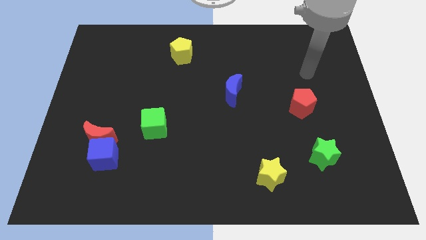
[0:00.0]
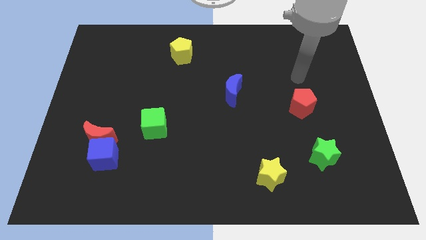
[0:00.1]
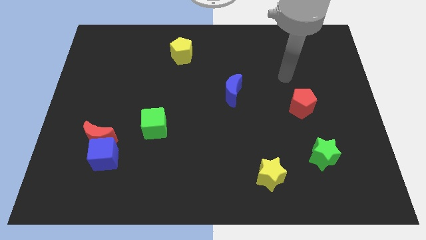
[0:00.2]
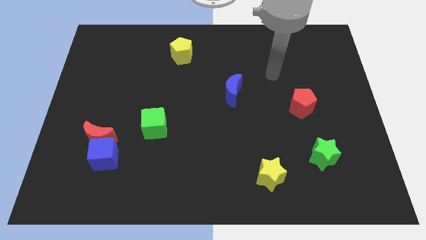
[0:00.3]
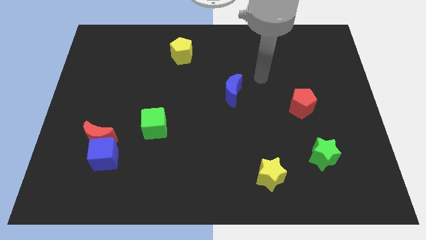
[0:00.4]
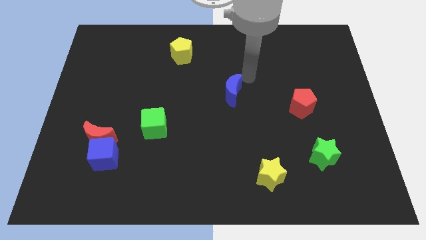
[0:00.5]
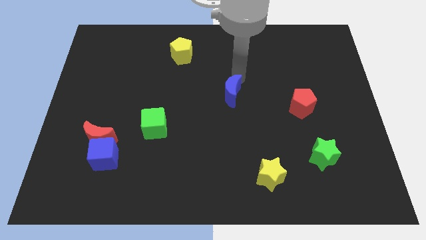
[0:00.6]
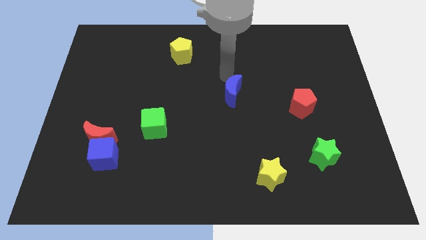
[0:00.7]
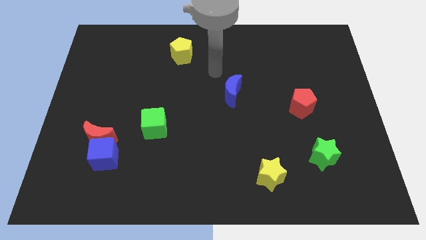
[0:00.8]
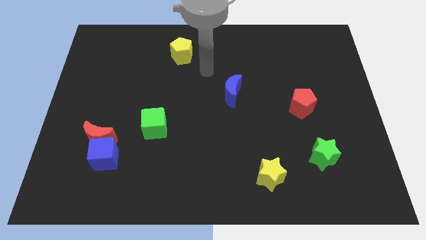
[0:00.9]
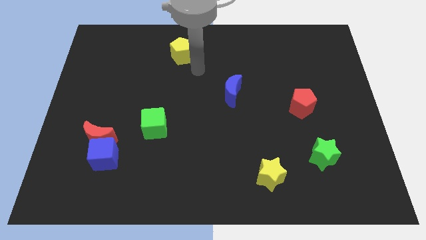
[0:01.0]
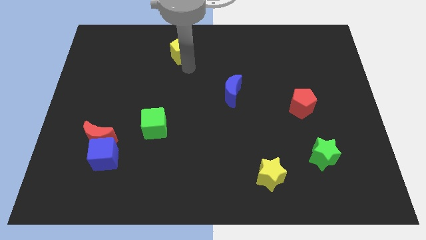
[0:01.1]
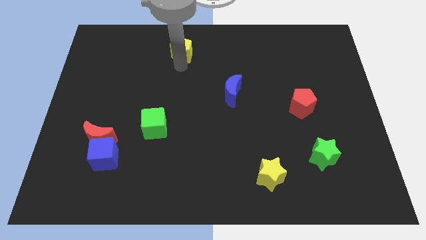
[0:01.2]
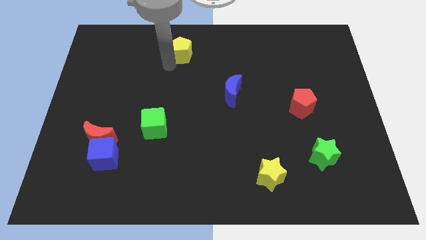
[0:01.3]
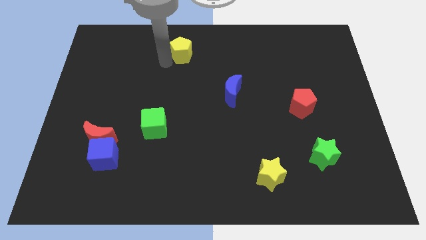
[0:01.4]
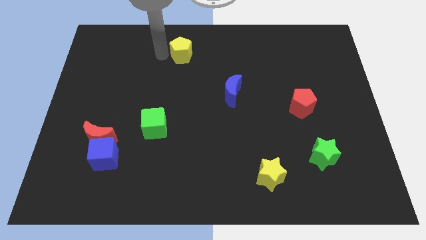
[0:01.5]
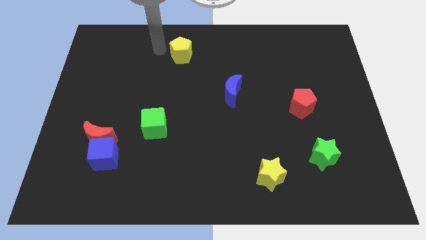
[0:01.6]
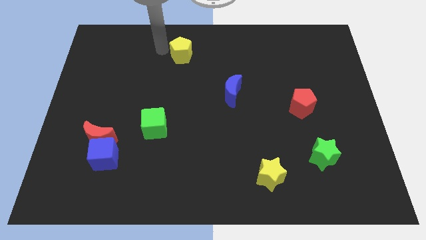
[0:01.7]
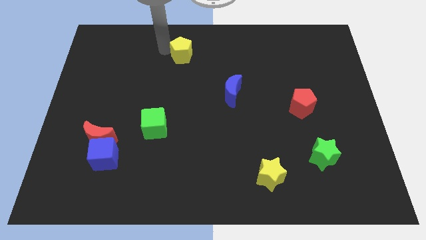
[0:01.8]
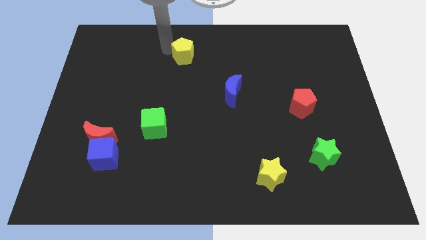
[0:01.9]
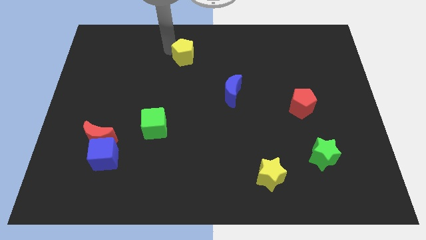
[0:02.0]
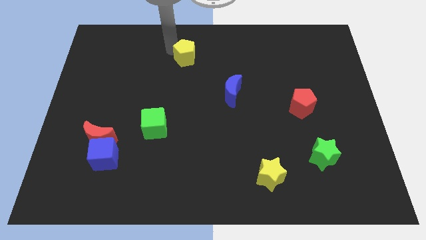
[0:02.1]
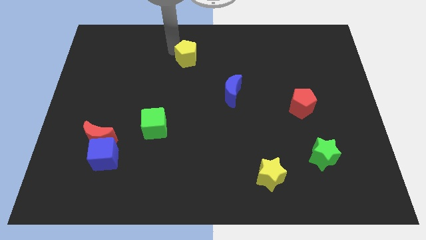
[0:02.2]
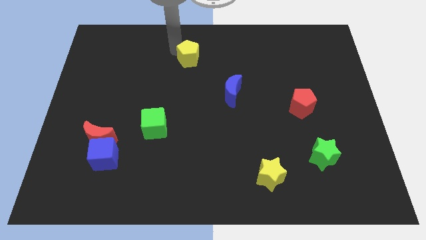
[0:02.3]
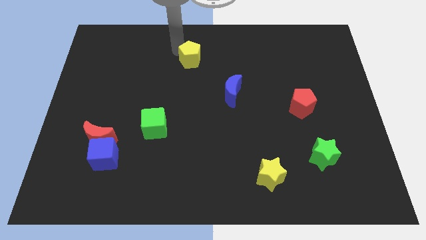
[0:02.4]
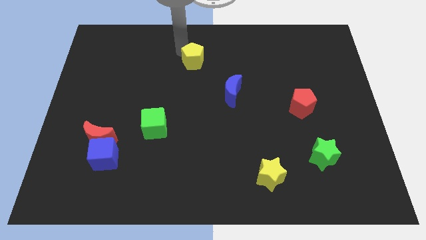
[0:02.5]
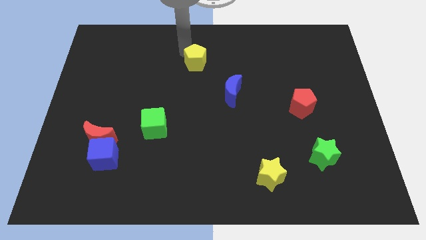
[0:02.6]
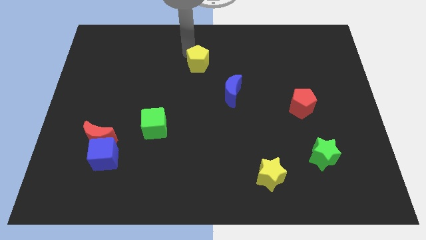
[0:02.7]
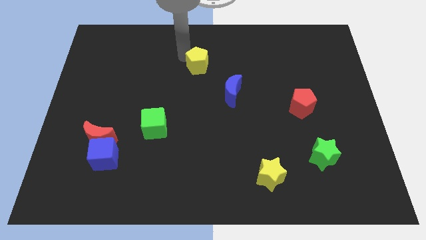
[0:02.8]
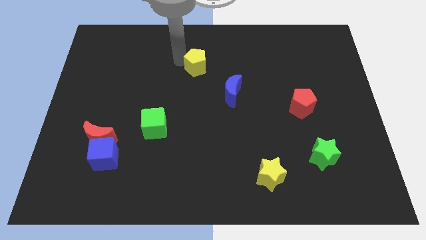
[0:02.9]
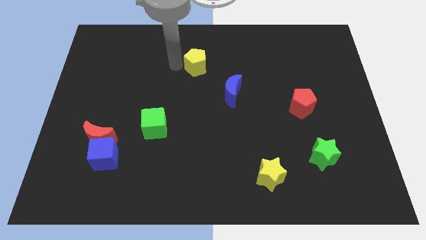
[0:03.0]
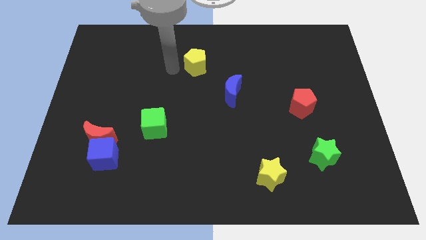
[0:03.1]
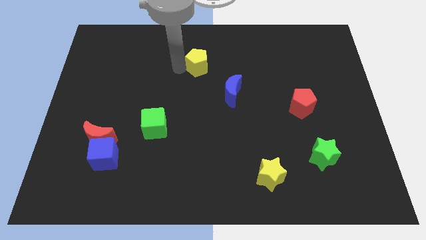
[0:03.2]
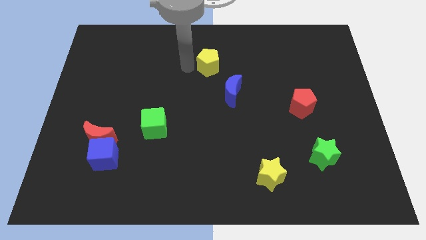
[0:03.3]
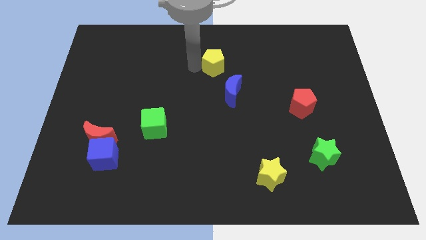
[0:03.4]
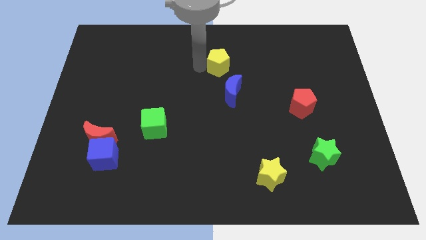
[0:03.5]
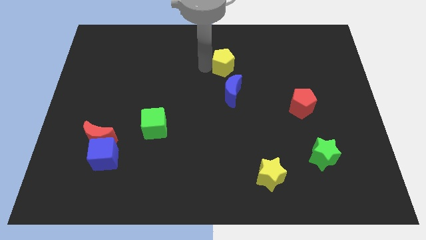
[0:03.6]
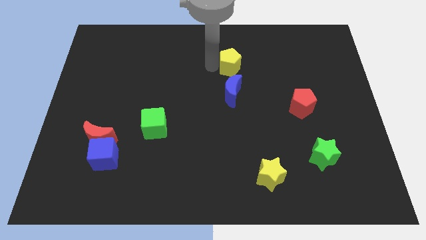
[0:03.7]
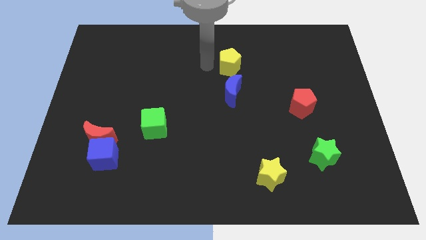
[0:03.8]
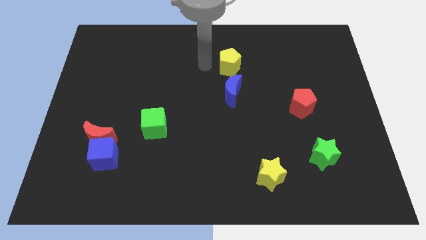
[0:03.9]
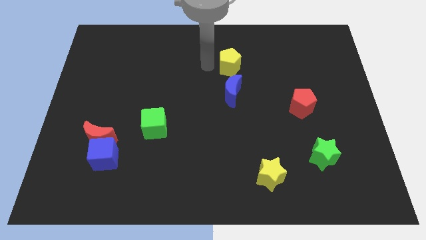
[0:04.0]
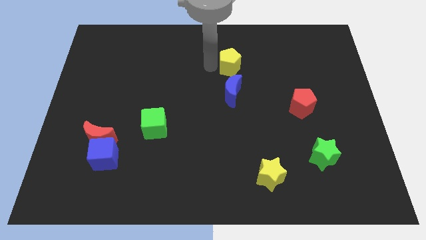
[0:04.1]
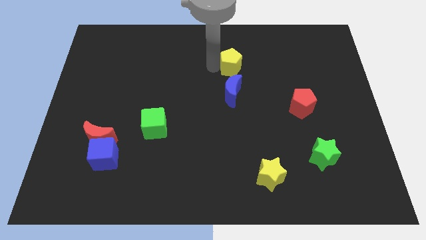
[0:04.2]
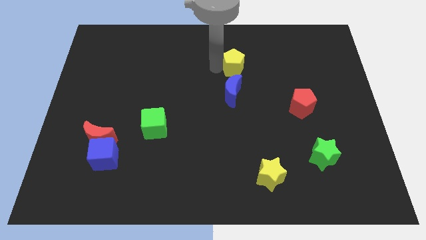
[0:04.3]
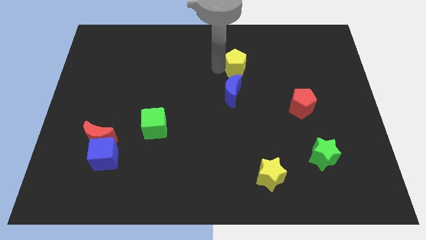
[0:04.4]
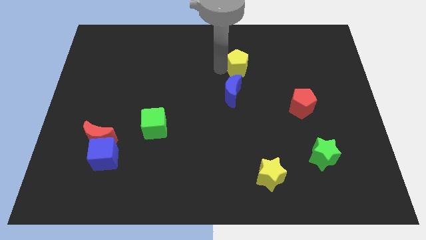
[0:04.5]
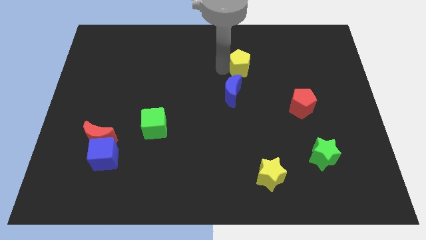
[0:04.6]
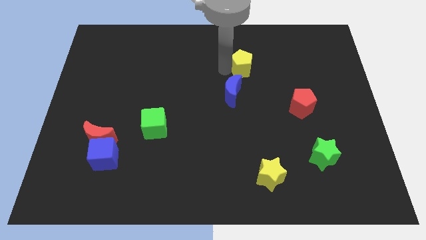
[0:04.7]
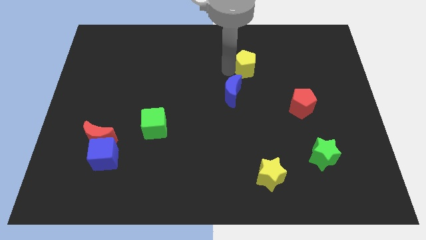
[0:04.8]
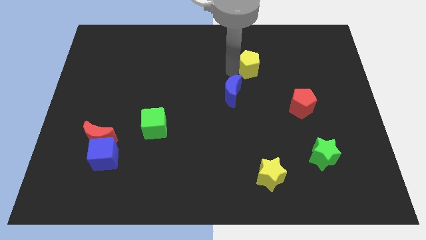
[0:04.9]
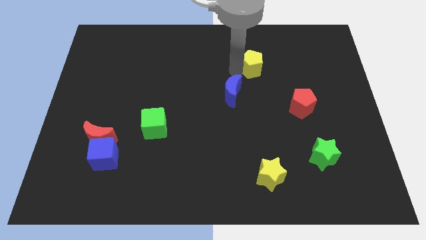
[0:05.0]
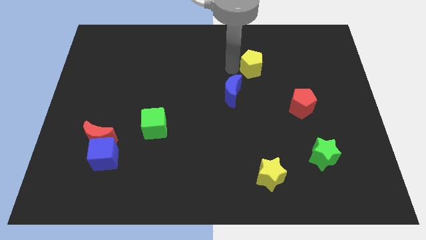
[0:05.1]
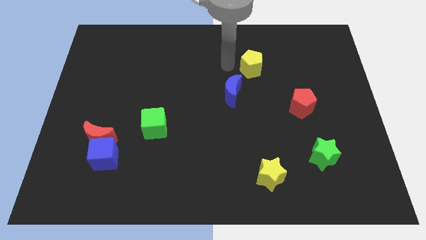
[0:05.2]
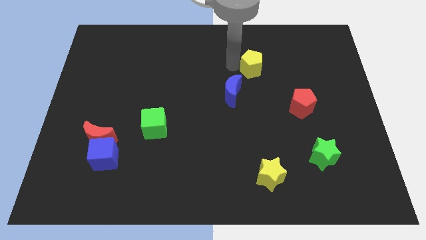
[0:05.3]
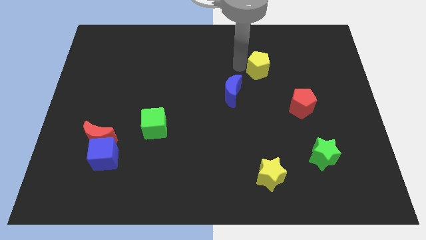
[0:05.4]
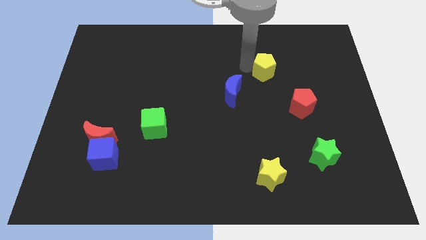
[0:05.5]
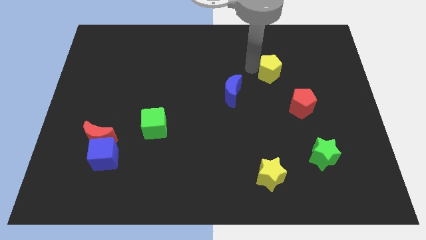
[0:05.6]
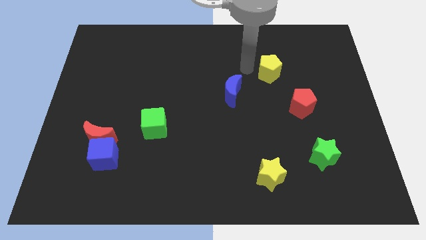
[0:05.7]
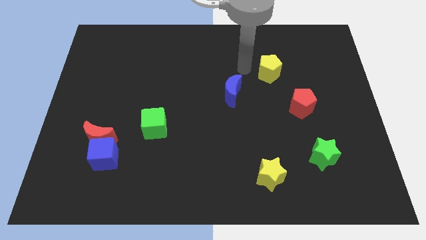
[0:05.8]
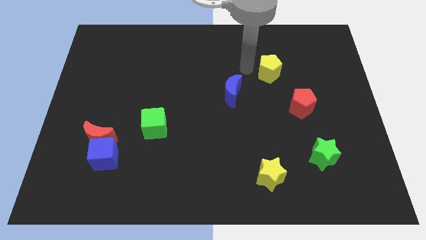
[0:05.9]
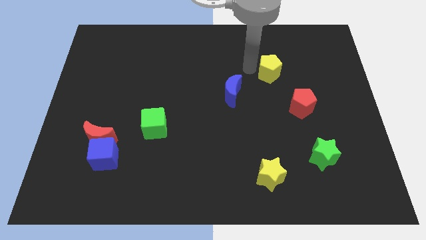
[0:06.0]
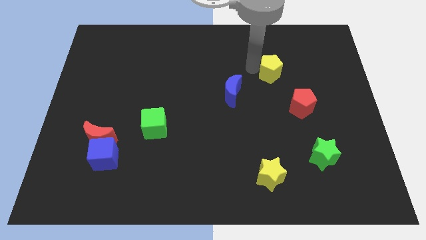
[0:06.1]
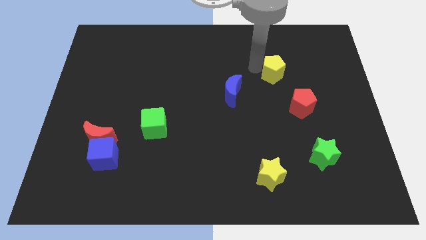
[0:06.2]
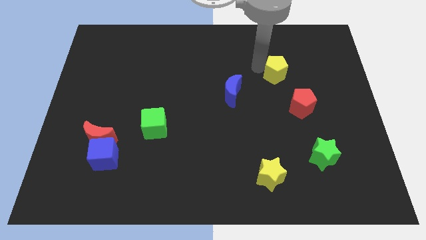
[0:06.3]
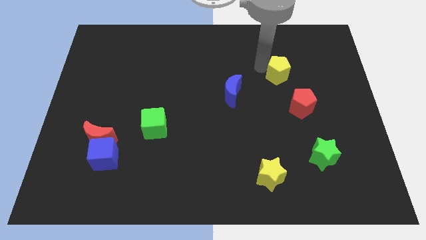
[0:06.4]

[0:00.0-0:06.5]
slide the yellow pentagon to the top of the red pentagon
